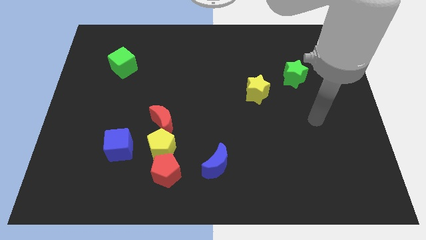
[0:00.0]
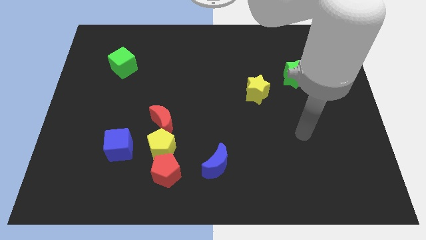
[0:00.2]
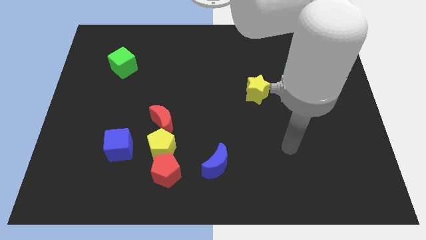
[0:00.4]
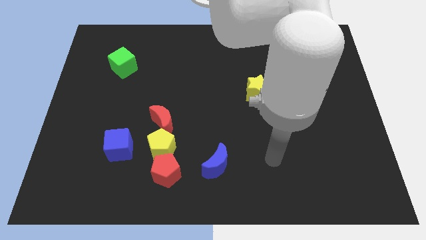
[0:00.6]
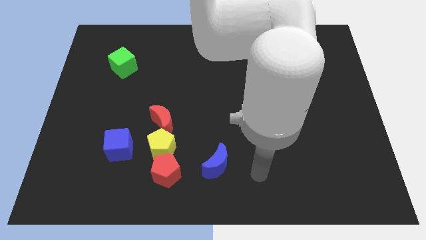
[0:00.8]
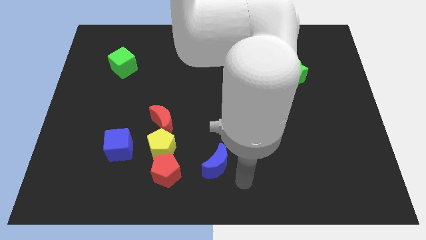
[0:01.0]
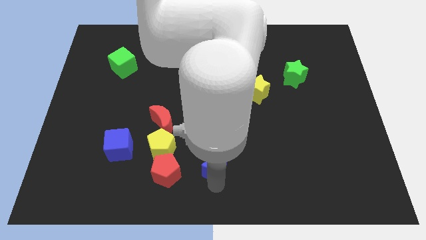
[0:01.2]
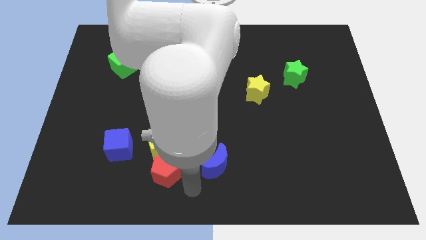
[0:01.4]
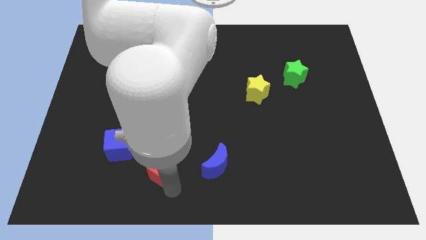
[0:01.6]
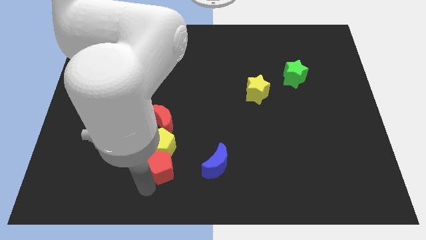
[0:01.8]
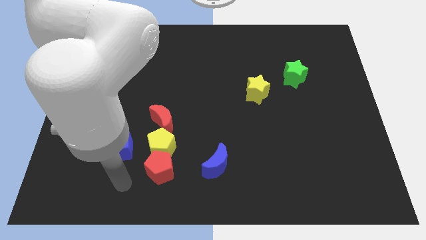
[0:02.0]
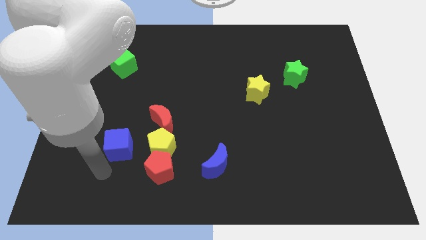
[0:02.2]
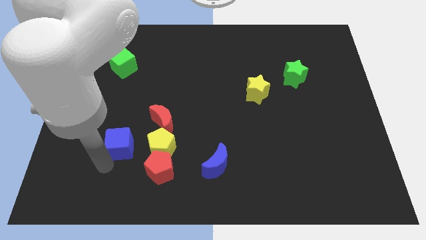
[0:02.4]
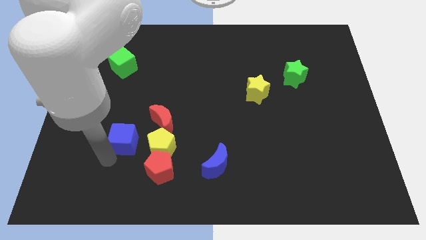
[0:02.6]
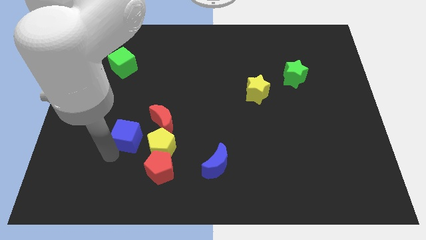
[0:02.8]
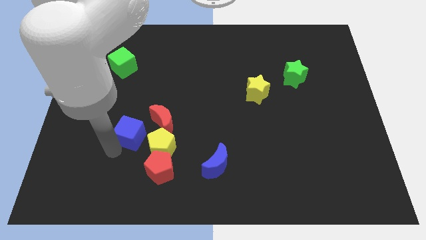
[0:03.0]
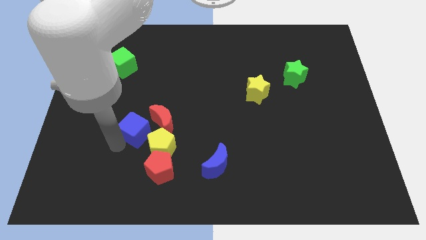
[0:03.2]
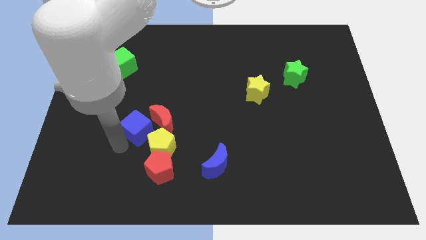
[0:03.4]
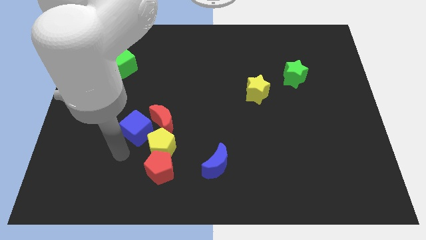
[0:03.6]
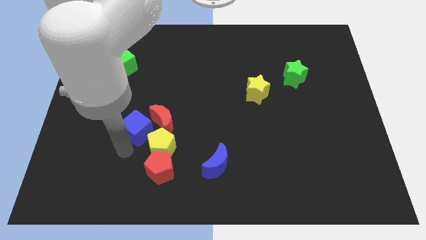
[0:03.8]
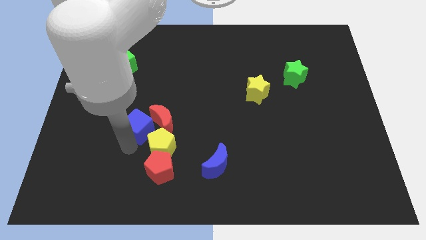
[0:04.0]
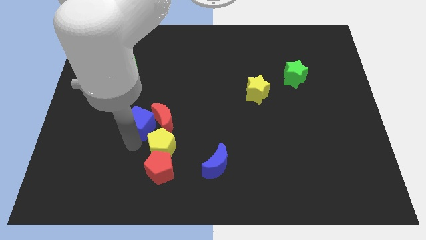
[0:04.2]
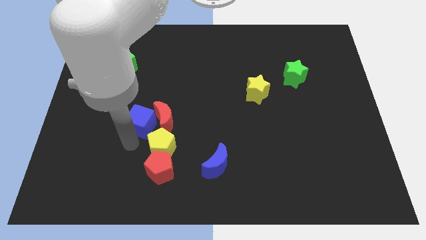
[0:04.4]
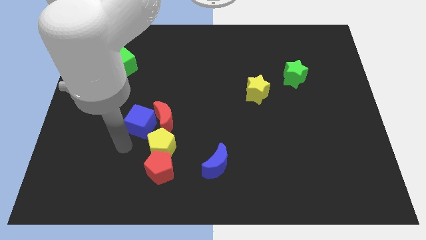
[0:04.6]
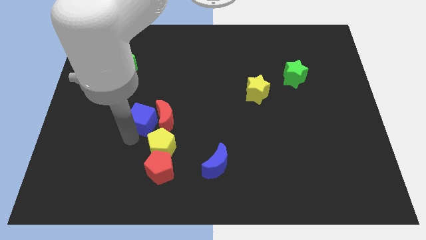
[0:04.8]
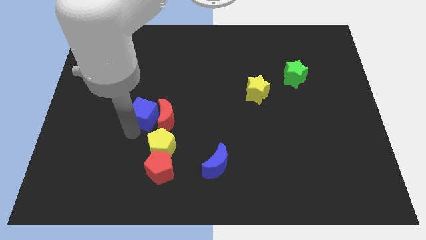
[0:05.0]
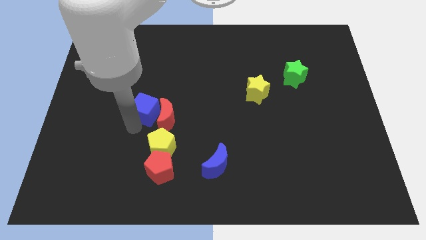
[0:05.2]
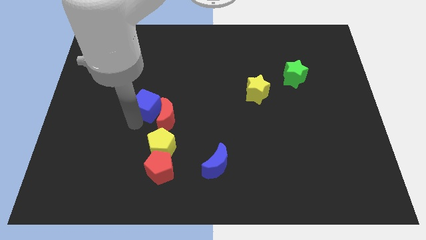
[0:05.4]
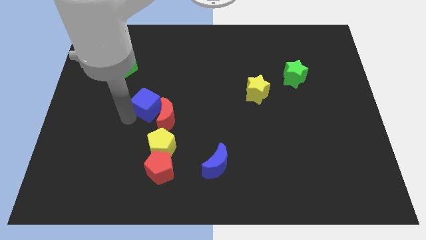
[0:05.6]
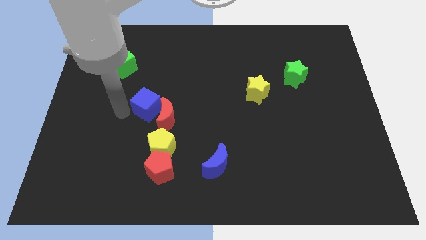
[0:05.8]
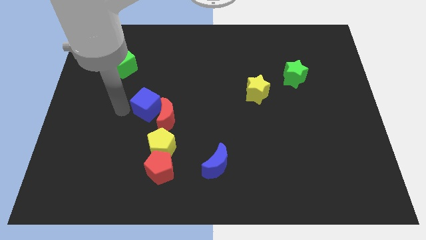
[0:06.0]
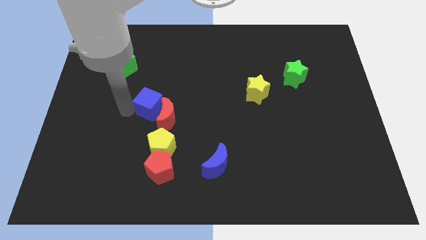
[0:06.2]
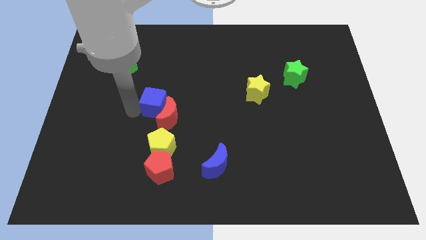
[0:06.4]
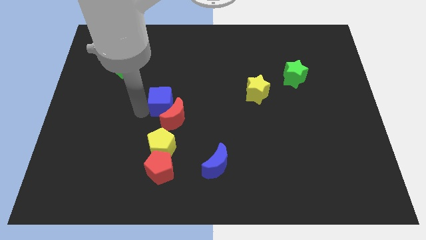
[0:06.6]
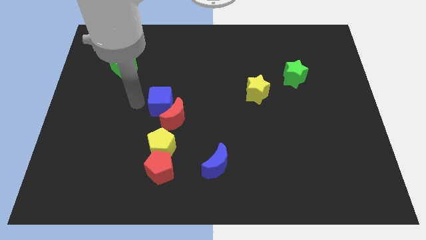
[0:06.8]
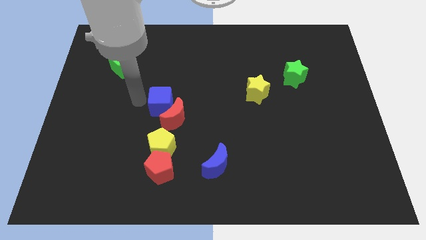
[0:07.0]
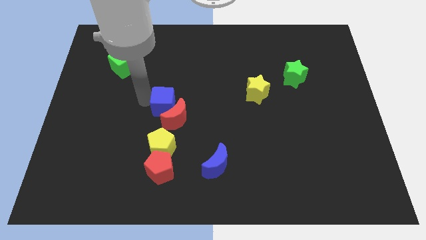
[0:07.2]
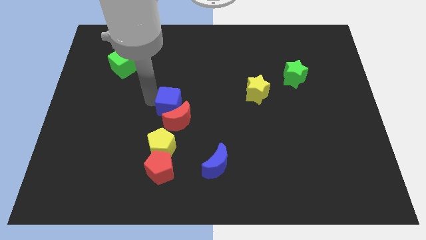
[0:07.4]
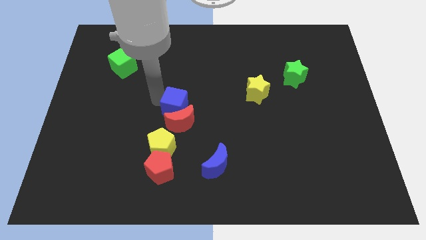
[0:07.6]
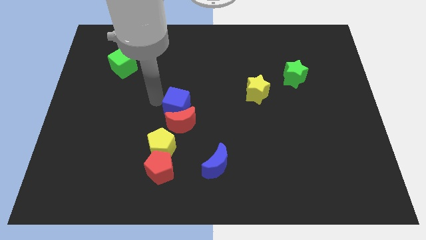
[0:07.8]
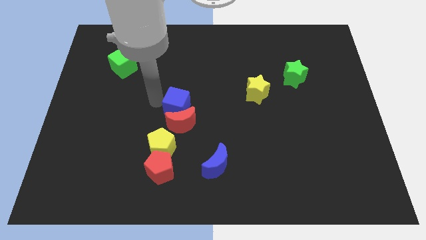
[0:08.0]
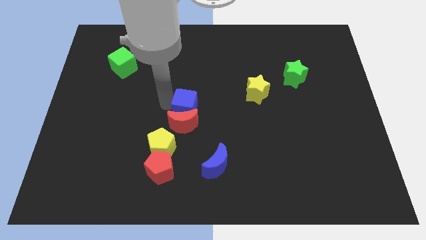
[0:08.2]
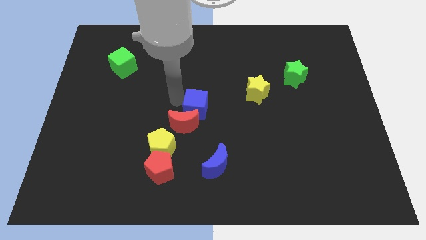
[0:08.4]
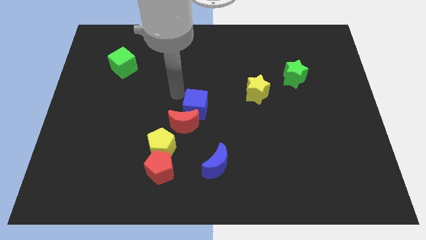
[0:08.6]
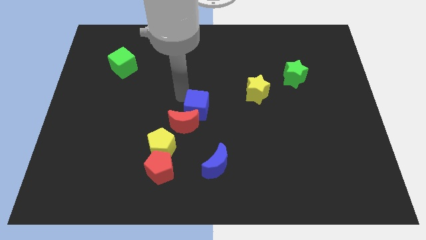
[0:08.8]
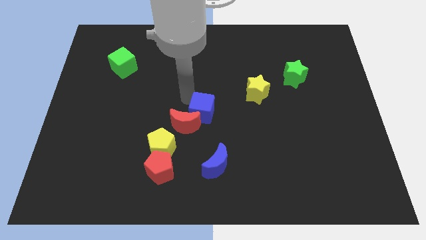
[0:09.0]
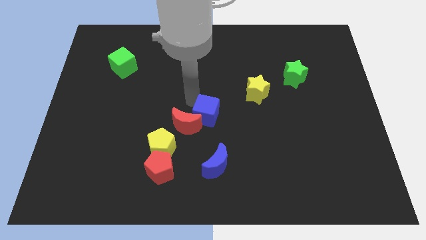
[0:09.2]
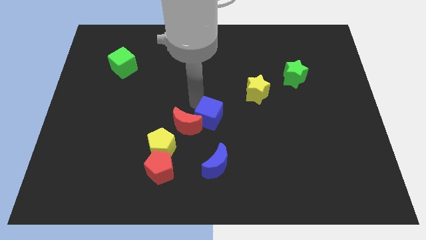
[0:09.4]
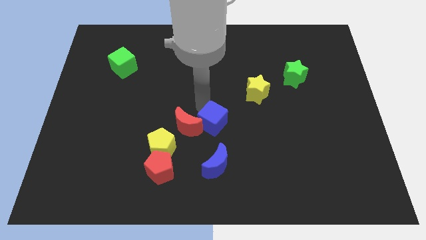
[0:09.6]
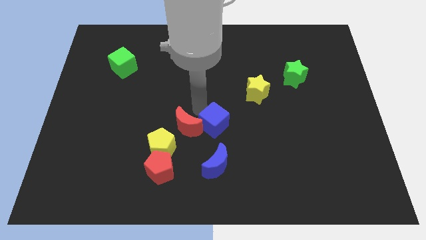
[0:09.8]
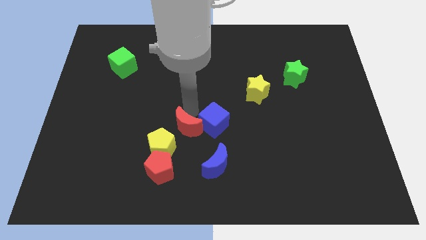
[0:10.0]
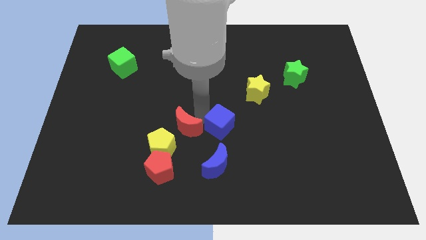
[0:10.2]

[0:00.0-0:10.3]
slide the blue cube to the right

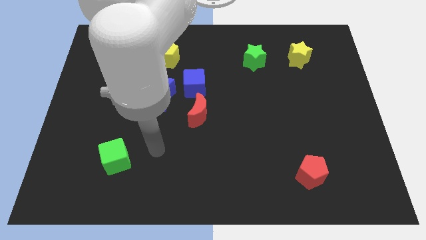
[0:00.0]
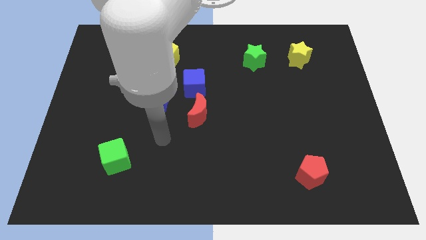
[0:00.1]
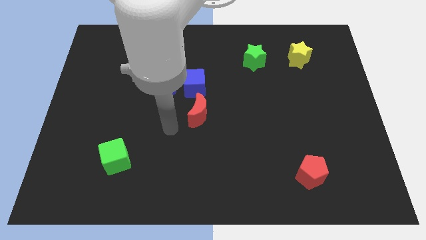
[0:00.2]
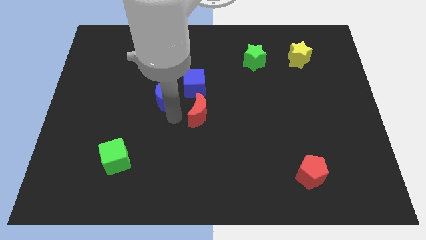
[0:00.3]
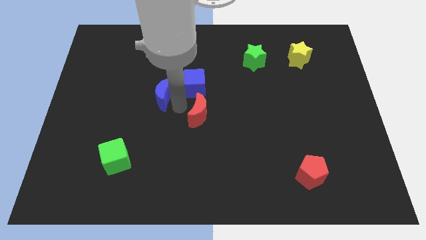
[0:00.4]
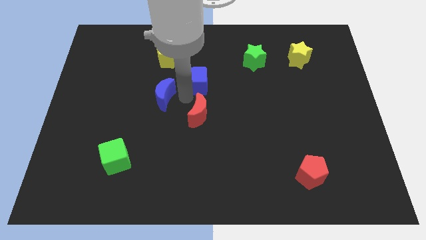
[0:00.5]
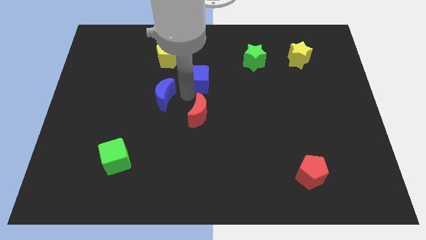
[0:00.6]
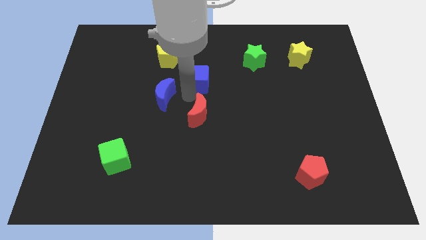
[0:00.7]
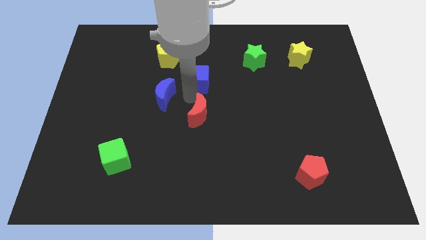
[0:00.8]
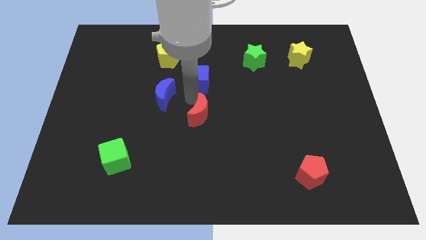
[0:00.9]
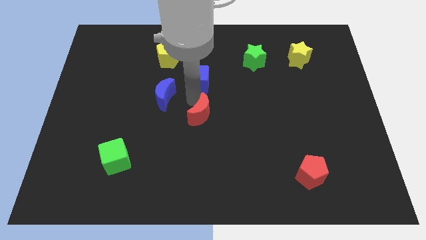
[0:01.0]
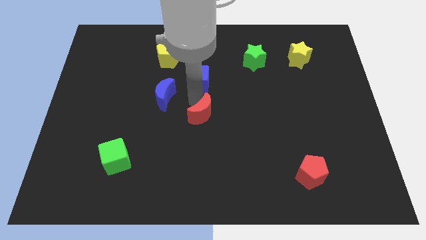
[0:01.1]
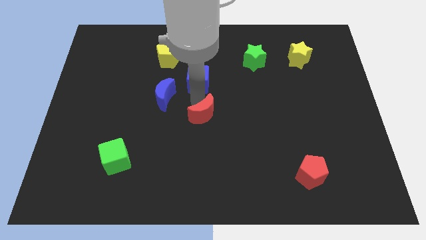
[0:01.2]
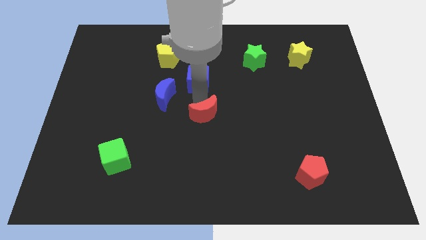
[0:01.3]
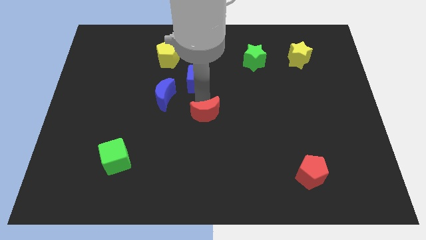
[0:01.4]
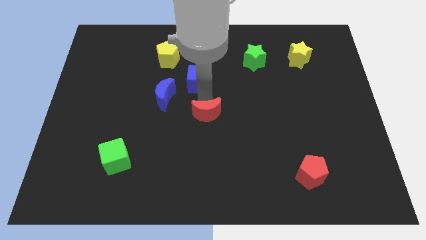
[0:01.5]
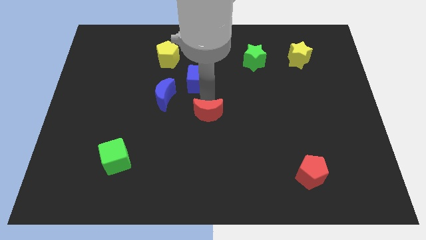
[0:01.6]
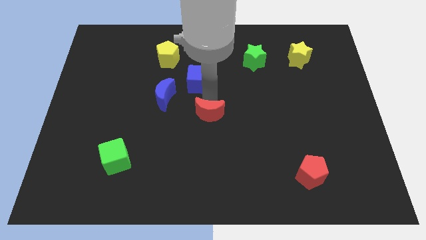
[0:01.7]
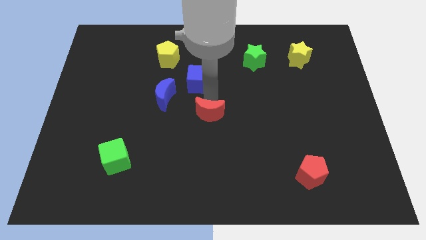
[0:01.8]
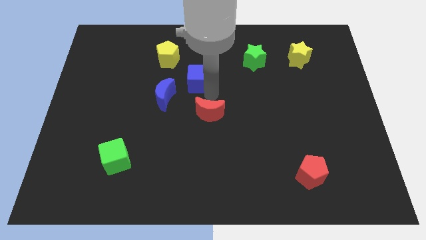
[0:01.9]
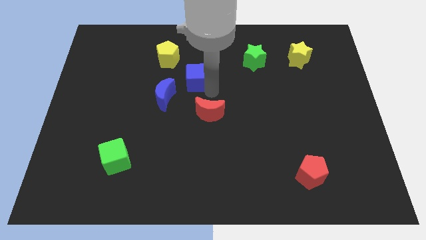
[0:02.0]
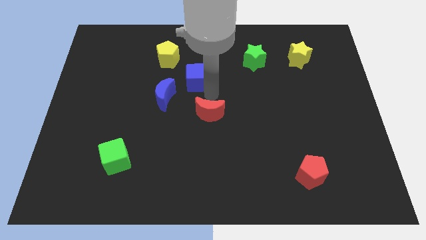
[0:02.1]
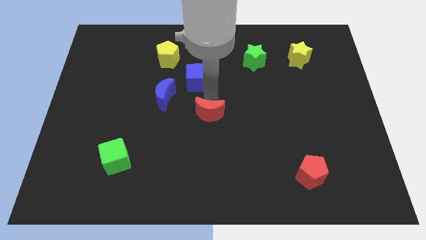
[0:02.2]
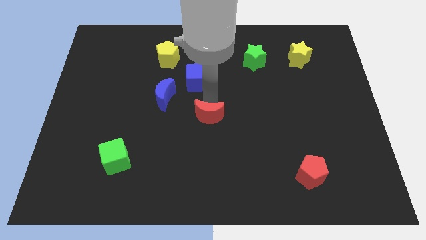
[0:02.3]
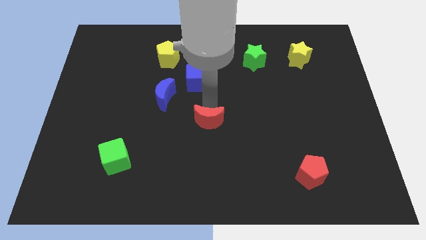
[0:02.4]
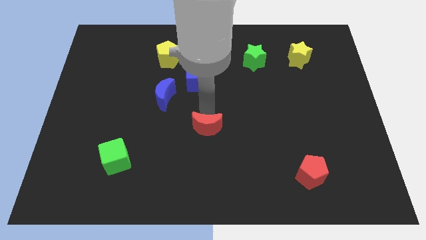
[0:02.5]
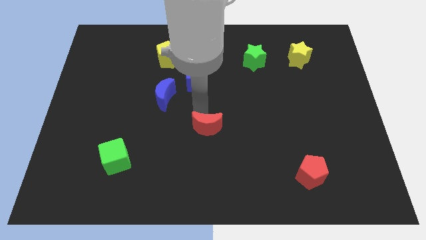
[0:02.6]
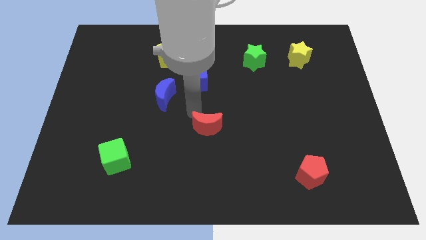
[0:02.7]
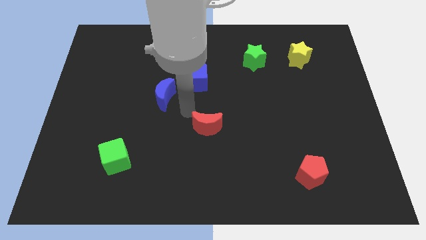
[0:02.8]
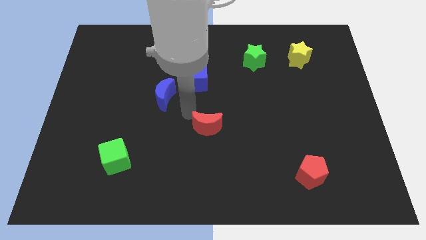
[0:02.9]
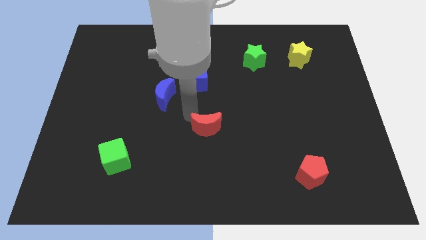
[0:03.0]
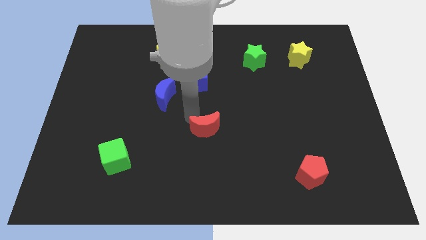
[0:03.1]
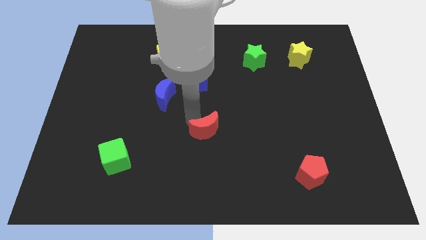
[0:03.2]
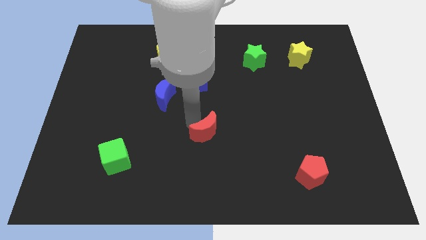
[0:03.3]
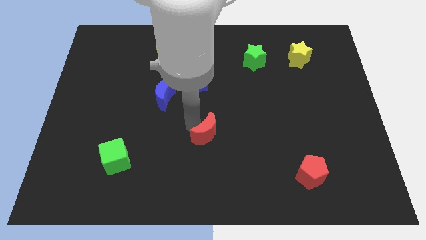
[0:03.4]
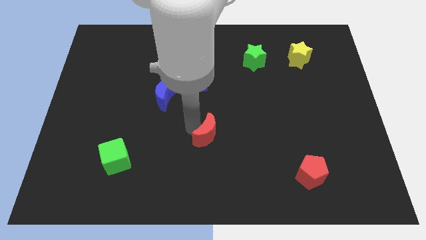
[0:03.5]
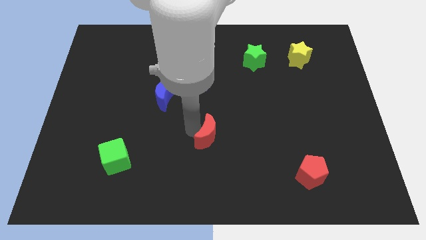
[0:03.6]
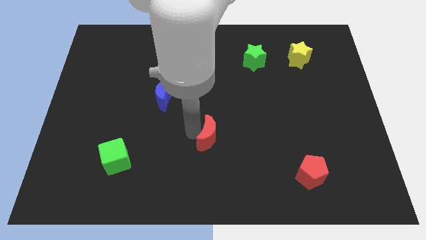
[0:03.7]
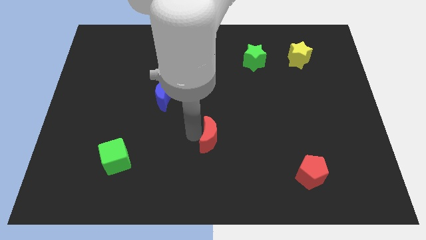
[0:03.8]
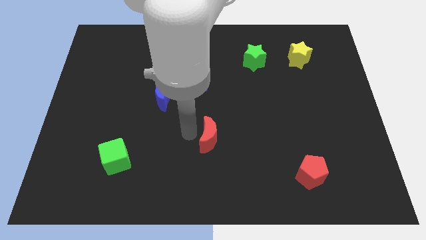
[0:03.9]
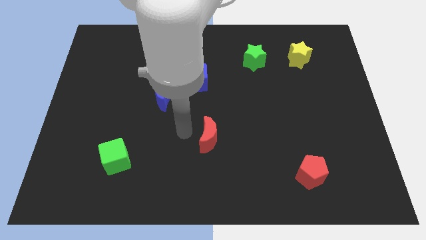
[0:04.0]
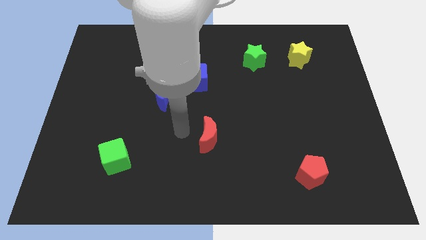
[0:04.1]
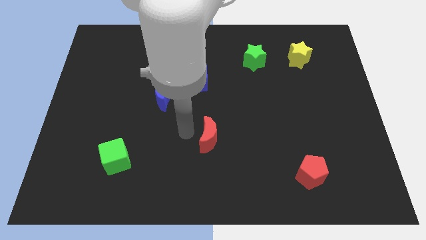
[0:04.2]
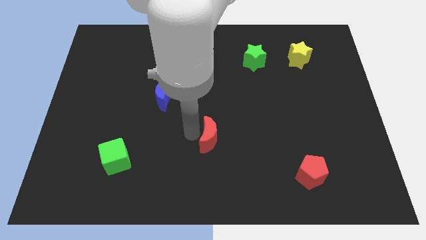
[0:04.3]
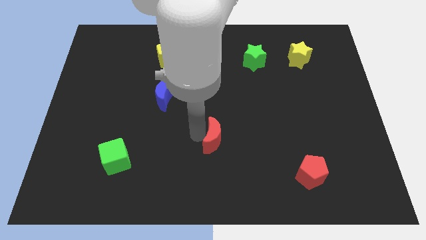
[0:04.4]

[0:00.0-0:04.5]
slightly slide the red moon diagonally down and right
